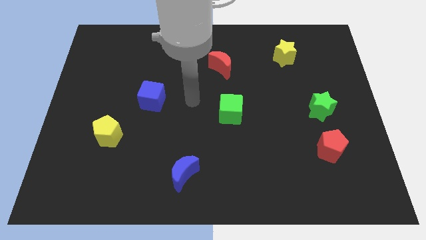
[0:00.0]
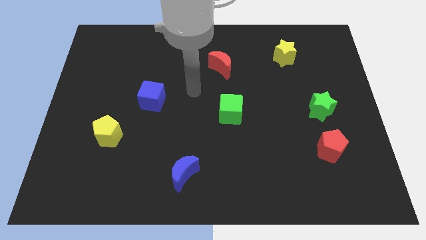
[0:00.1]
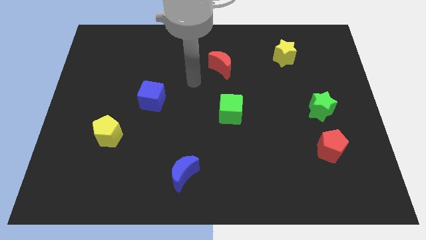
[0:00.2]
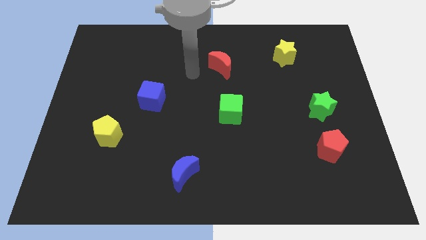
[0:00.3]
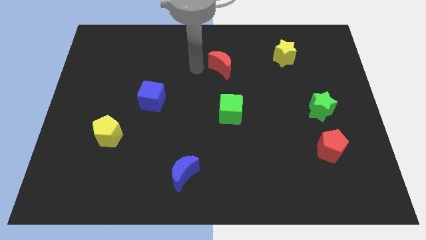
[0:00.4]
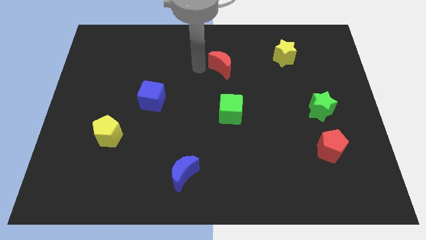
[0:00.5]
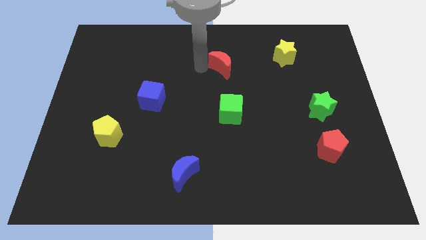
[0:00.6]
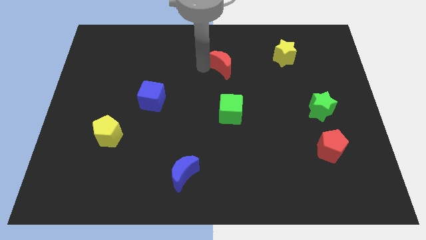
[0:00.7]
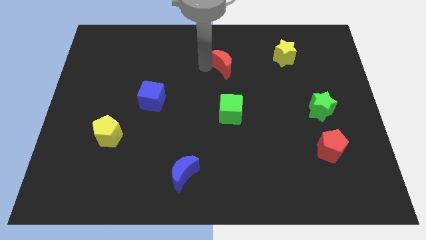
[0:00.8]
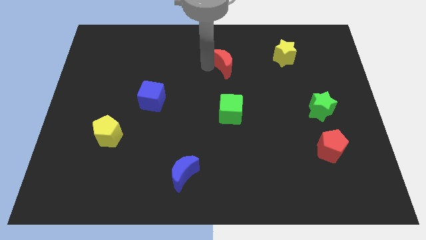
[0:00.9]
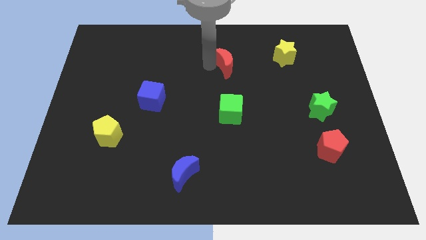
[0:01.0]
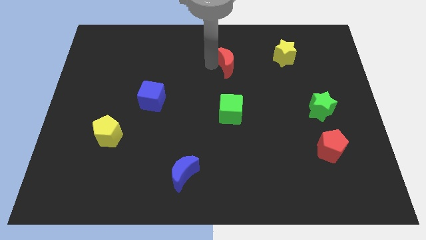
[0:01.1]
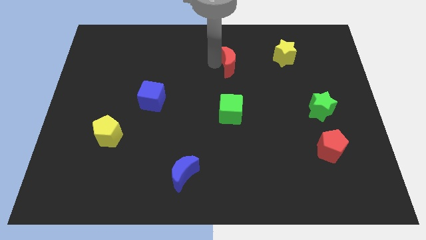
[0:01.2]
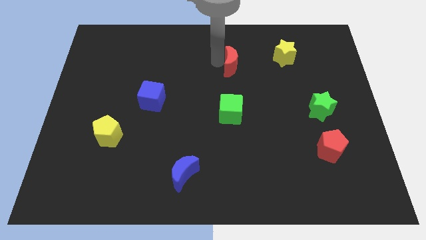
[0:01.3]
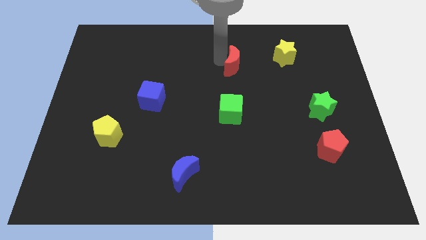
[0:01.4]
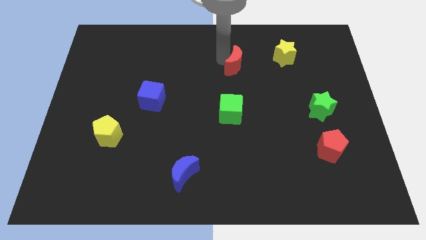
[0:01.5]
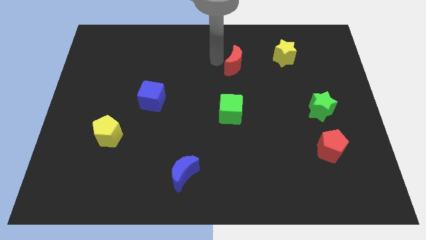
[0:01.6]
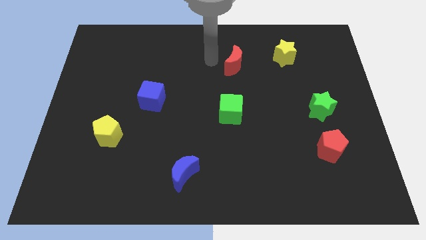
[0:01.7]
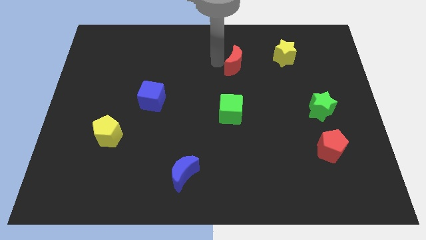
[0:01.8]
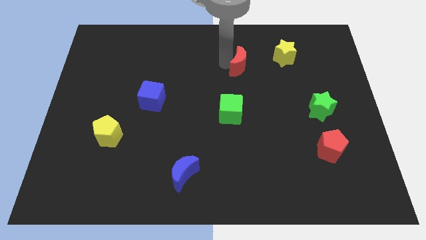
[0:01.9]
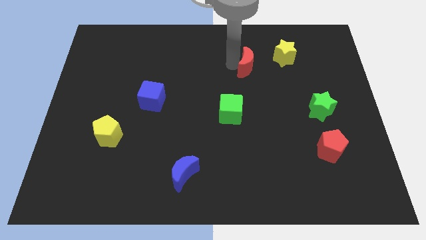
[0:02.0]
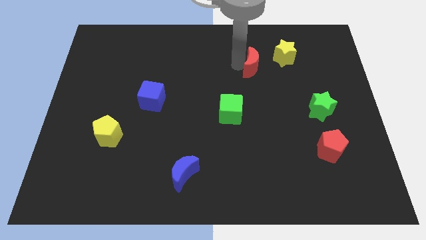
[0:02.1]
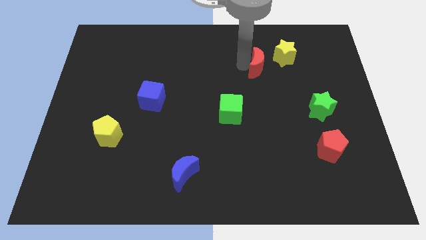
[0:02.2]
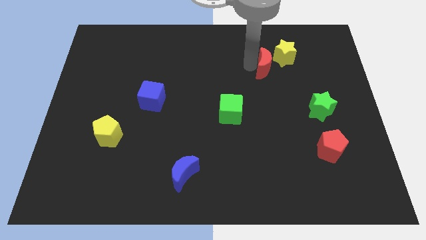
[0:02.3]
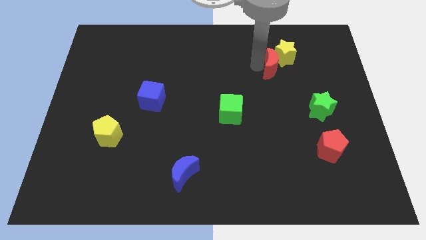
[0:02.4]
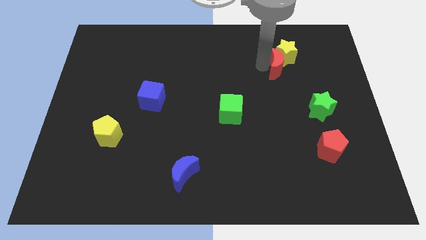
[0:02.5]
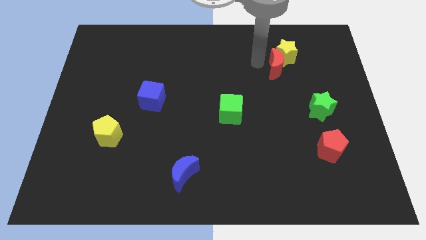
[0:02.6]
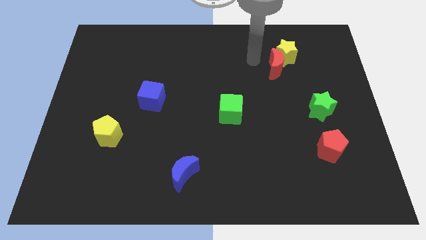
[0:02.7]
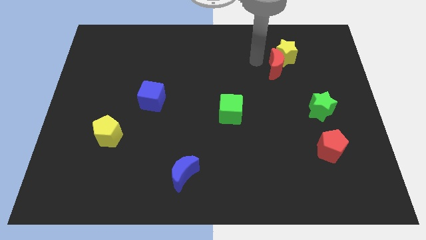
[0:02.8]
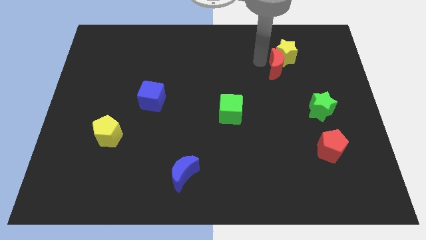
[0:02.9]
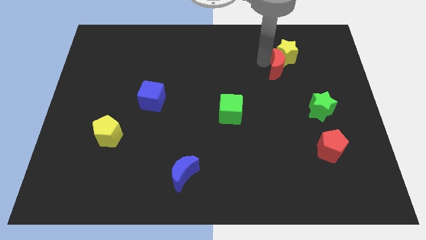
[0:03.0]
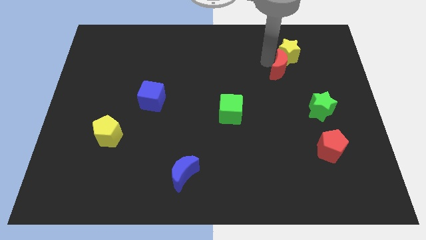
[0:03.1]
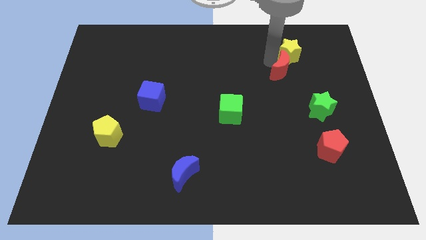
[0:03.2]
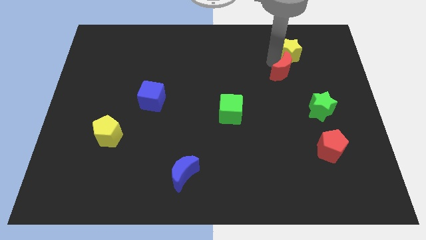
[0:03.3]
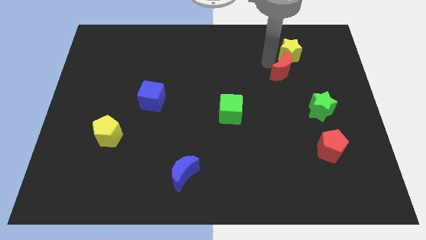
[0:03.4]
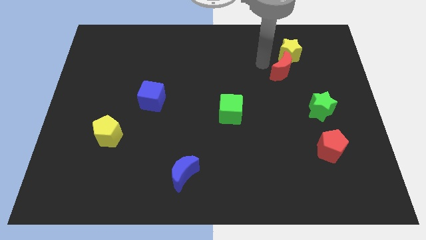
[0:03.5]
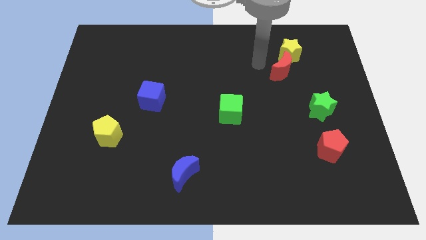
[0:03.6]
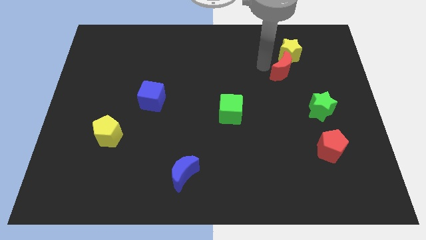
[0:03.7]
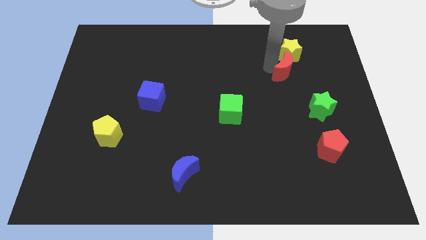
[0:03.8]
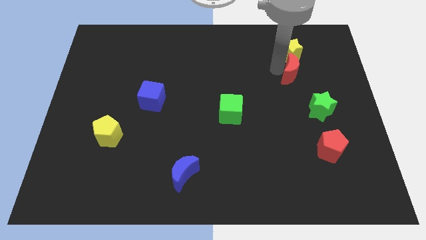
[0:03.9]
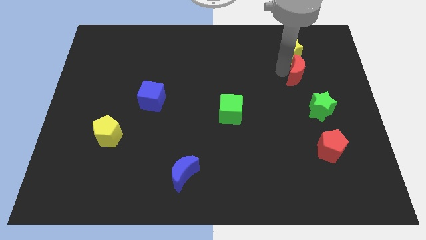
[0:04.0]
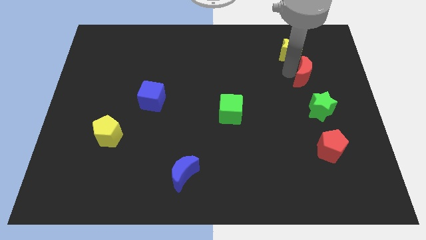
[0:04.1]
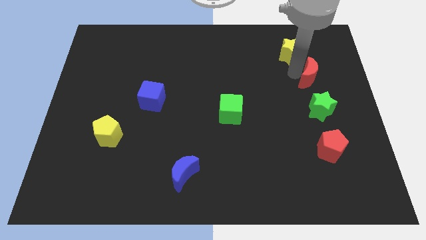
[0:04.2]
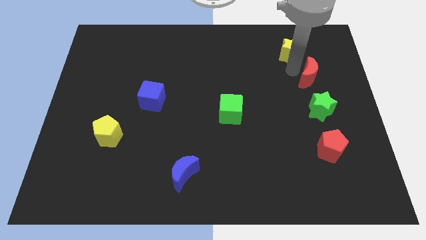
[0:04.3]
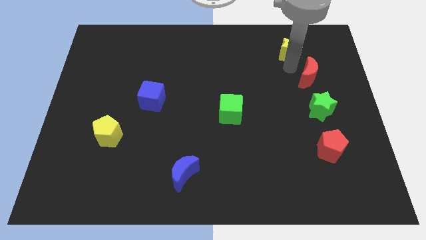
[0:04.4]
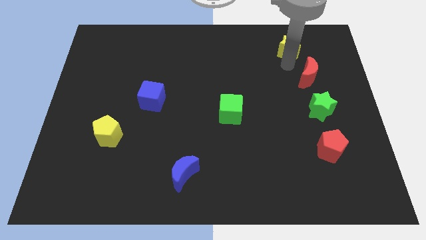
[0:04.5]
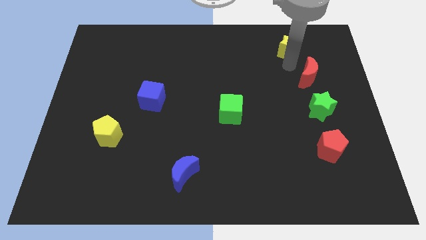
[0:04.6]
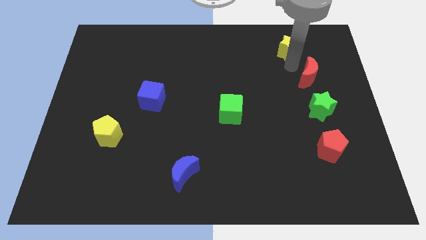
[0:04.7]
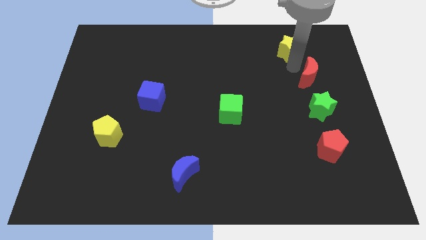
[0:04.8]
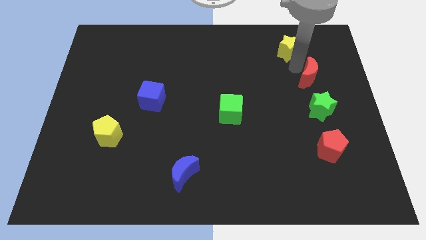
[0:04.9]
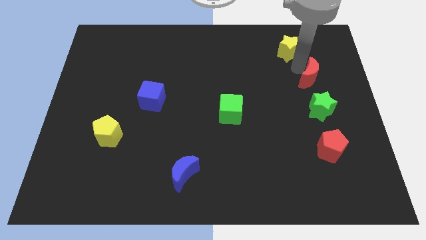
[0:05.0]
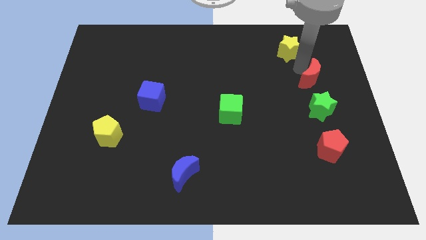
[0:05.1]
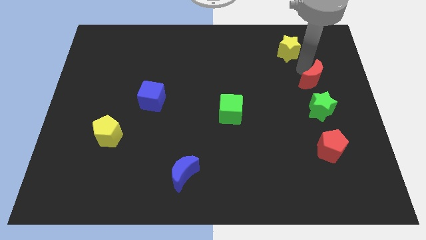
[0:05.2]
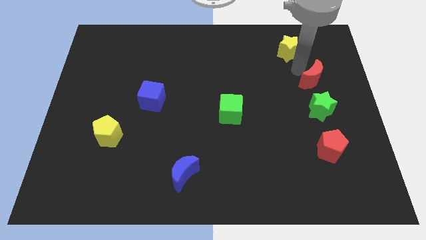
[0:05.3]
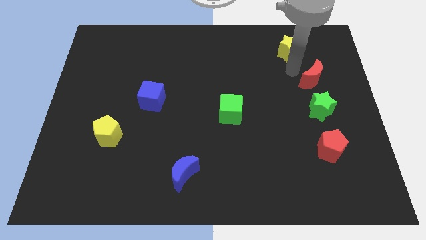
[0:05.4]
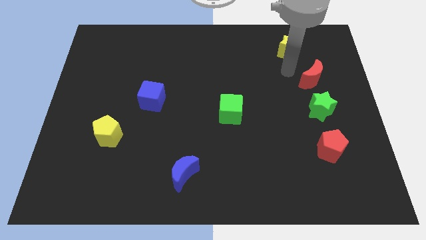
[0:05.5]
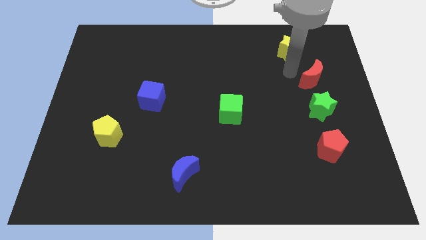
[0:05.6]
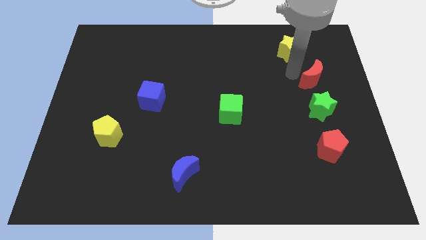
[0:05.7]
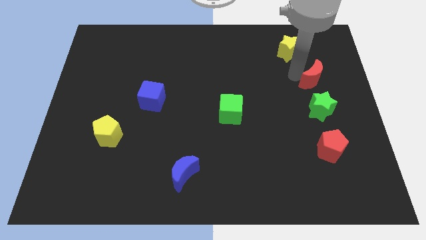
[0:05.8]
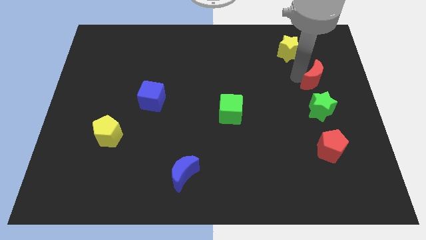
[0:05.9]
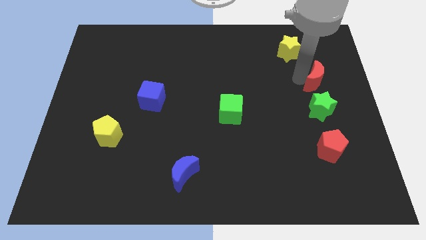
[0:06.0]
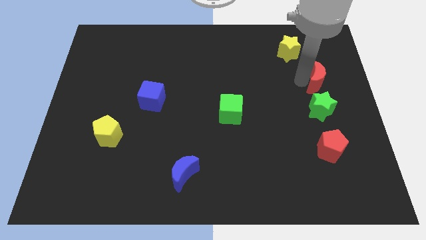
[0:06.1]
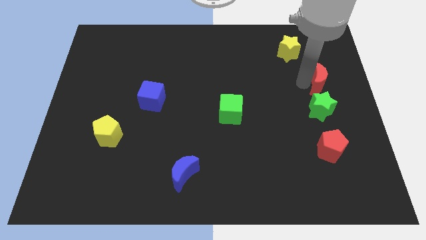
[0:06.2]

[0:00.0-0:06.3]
move the red moon to the center right
